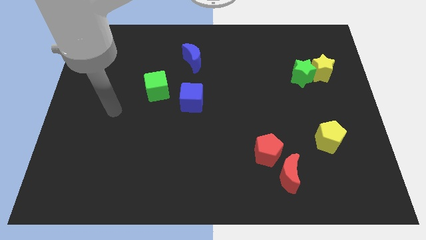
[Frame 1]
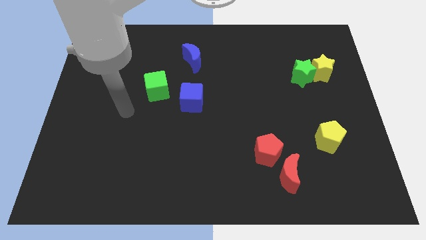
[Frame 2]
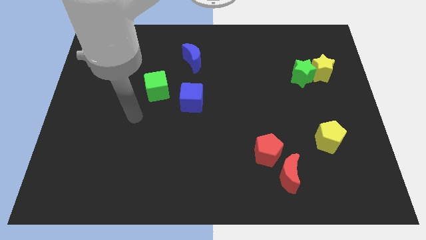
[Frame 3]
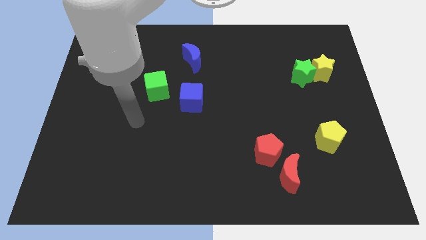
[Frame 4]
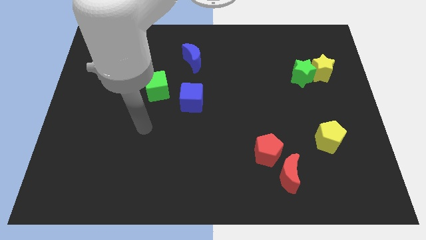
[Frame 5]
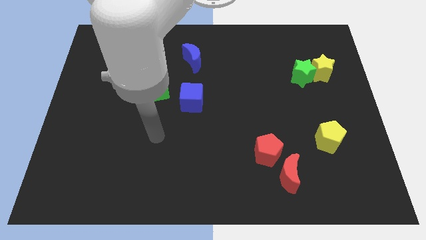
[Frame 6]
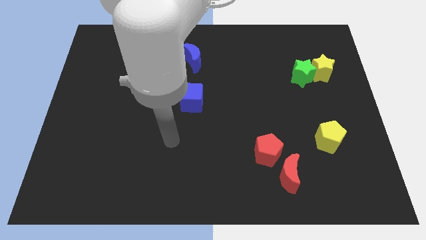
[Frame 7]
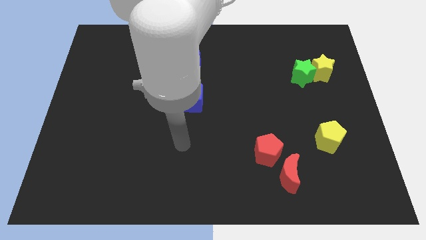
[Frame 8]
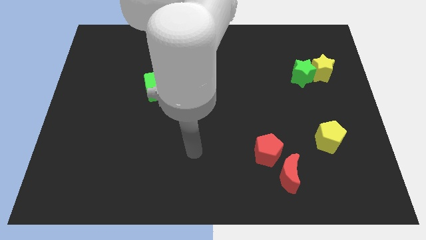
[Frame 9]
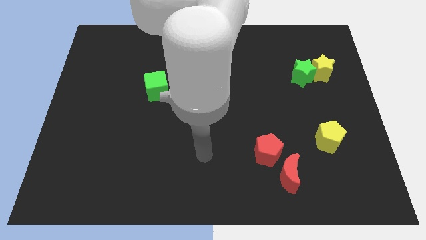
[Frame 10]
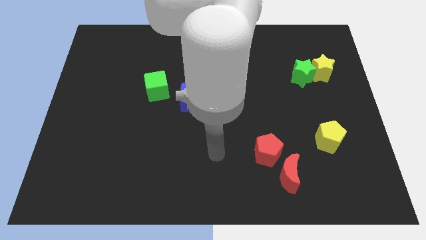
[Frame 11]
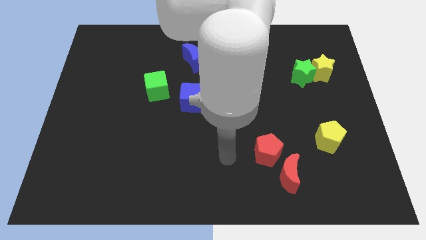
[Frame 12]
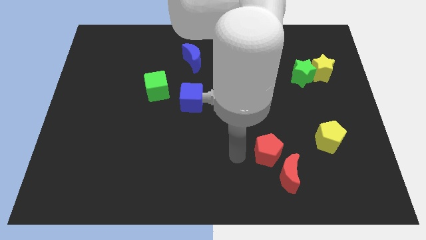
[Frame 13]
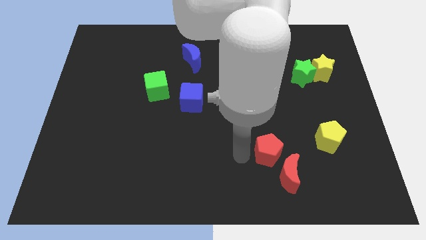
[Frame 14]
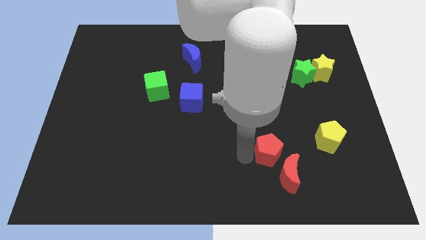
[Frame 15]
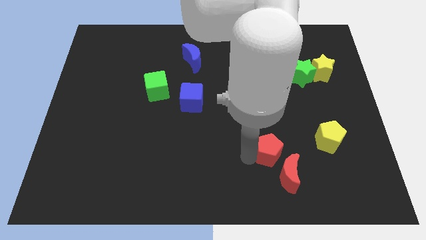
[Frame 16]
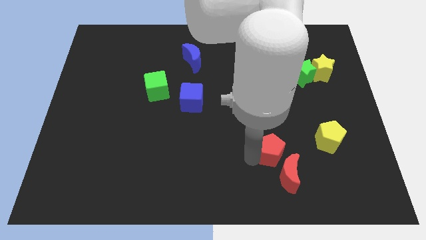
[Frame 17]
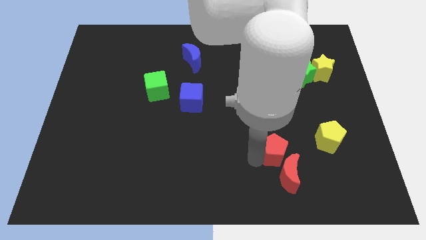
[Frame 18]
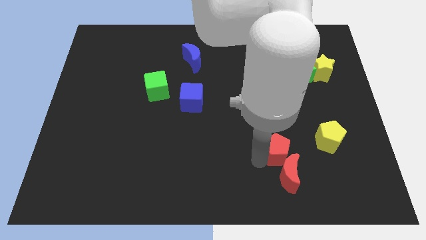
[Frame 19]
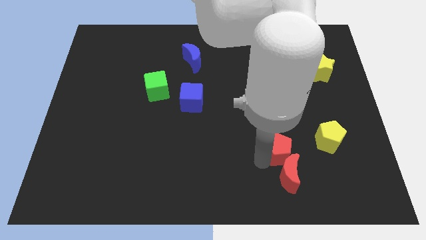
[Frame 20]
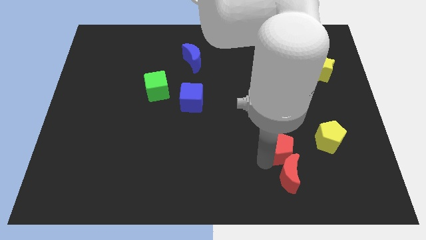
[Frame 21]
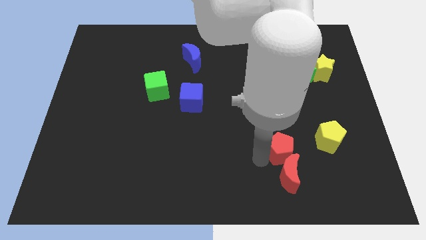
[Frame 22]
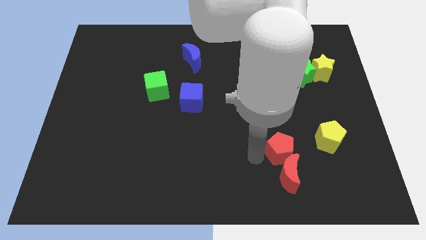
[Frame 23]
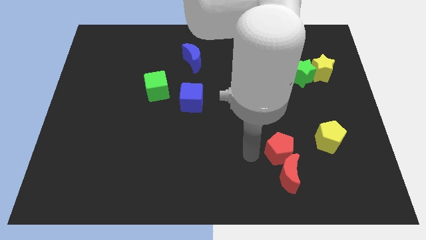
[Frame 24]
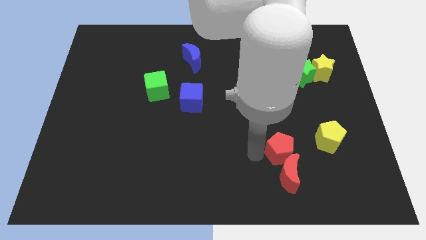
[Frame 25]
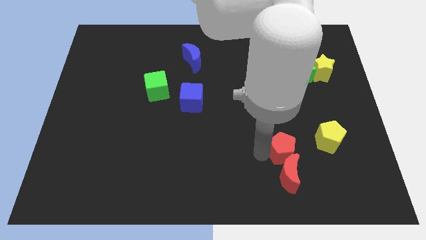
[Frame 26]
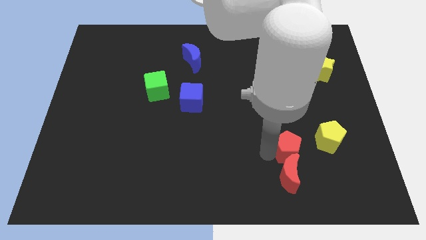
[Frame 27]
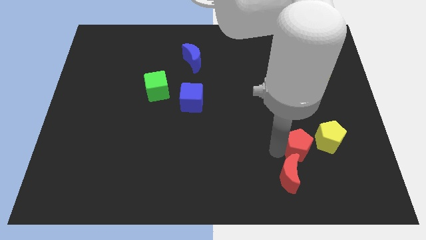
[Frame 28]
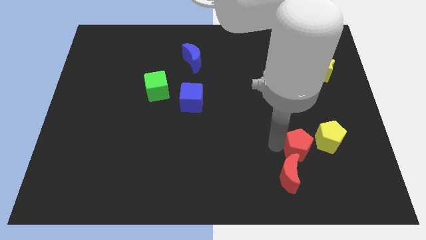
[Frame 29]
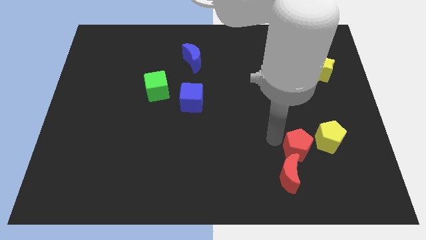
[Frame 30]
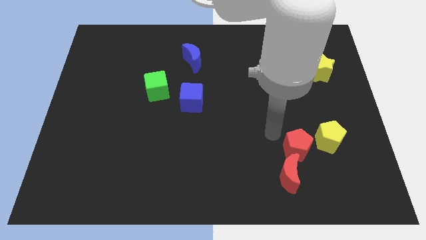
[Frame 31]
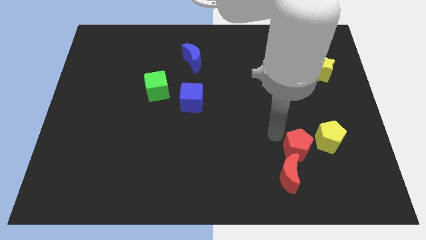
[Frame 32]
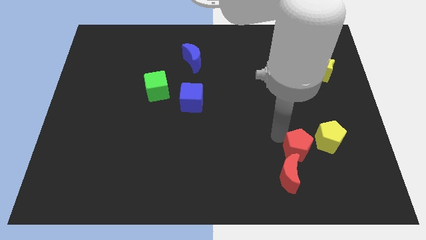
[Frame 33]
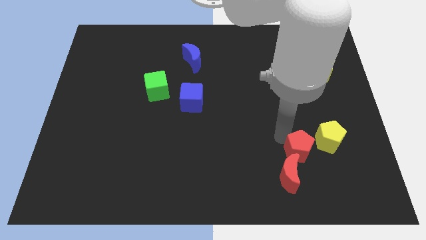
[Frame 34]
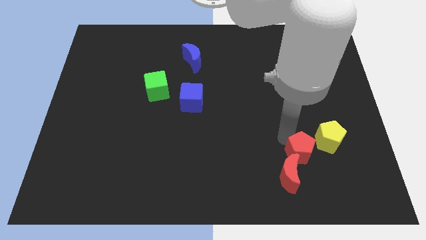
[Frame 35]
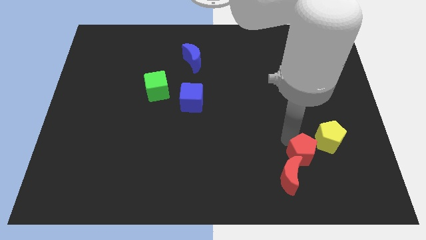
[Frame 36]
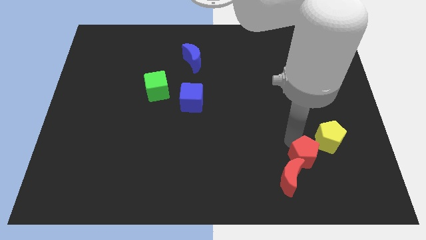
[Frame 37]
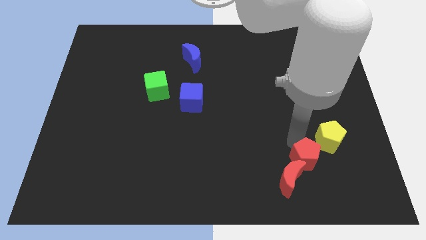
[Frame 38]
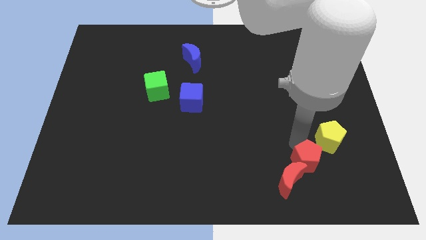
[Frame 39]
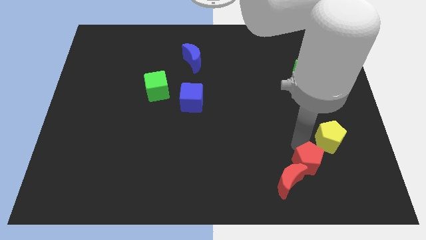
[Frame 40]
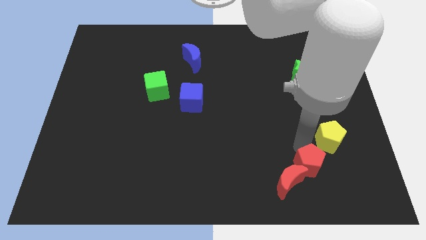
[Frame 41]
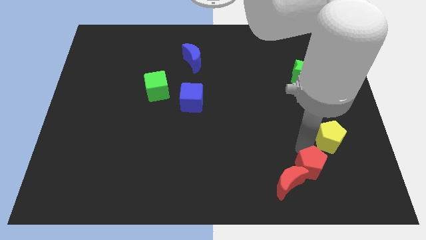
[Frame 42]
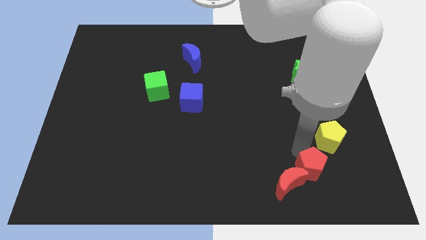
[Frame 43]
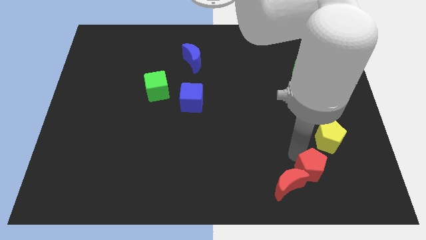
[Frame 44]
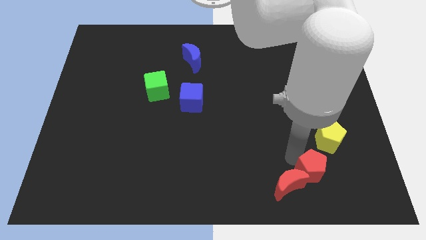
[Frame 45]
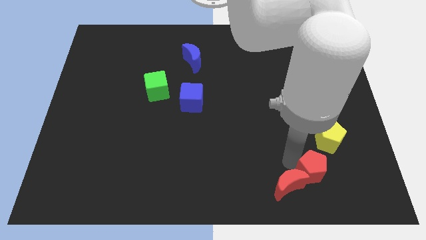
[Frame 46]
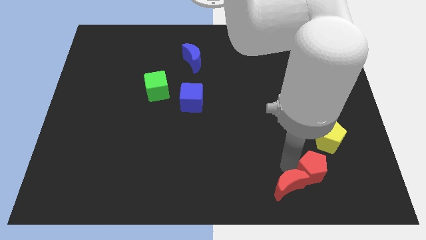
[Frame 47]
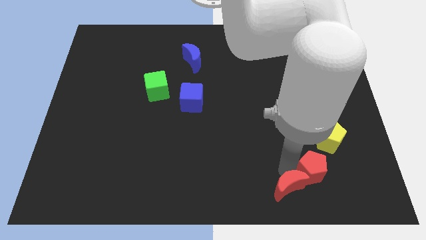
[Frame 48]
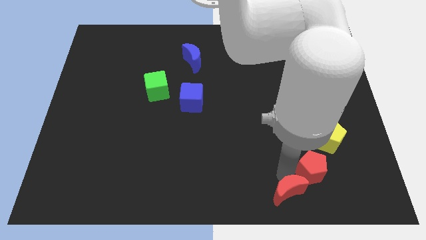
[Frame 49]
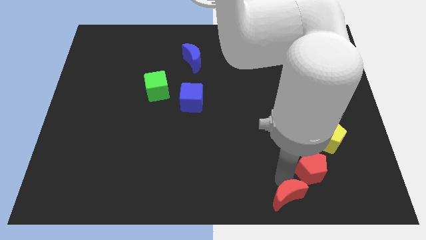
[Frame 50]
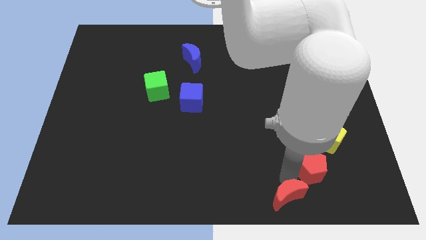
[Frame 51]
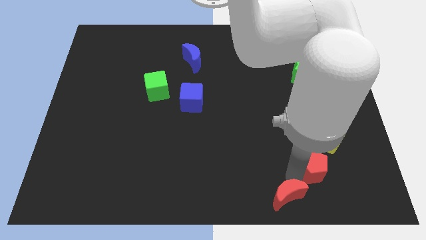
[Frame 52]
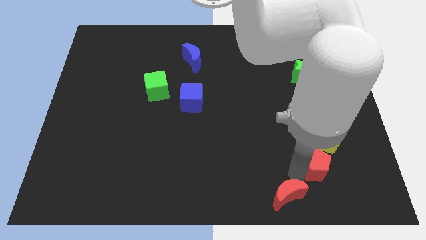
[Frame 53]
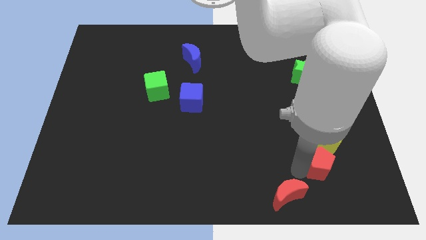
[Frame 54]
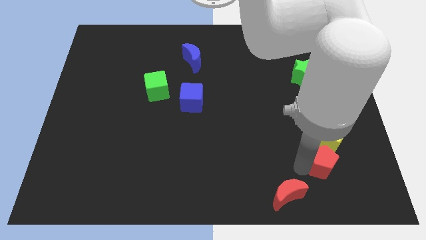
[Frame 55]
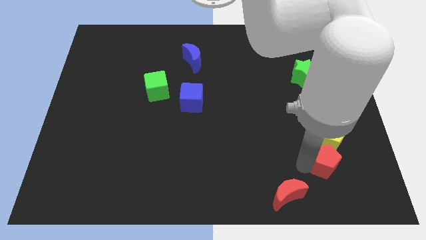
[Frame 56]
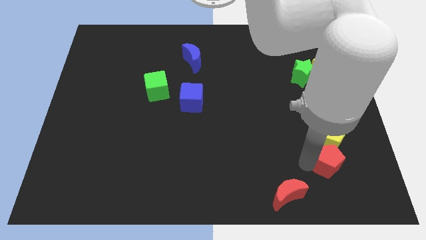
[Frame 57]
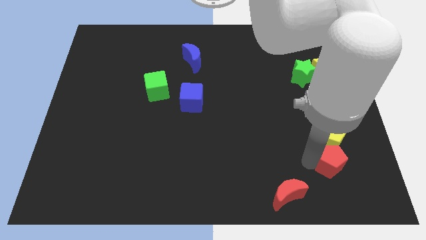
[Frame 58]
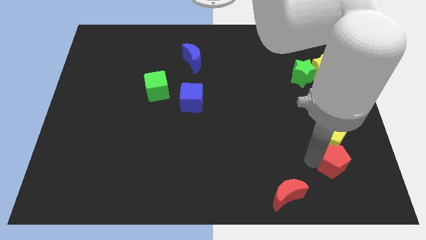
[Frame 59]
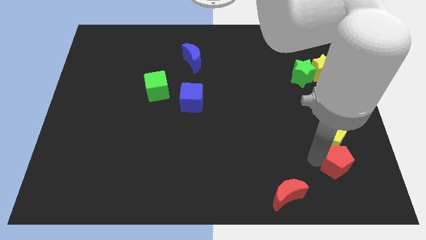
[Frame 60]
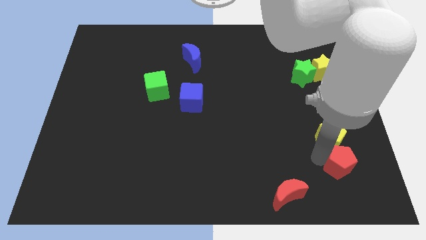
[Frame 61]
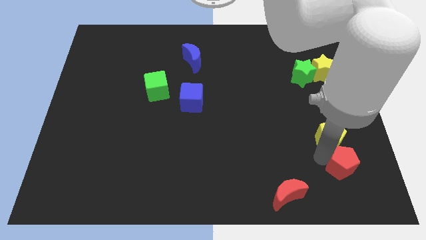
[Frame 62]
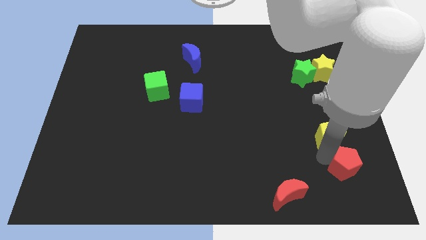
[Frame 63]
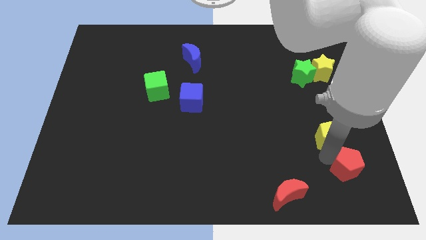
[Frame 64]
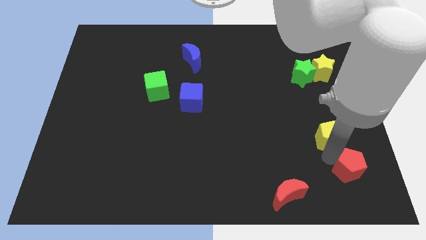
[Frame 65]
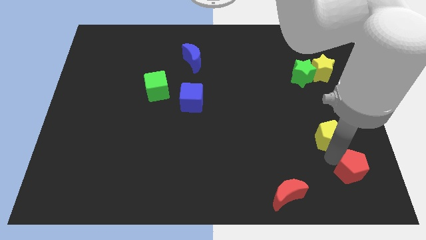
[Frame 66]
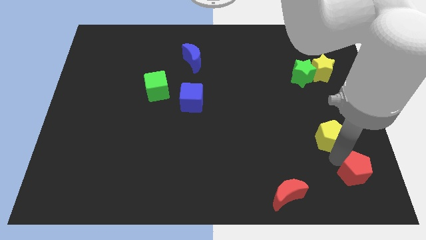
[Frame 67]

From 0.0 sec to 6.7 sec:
put the red pentagon to the bottom right
